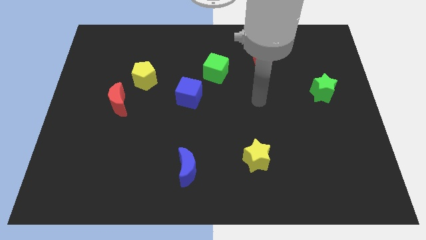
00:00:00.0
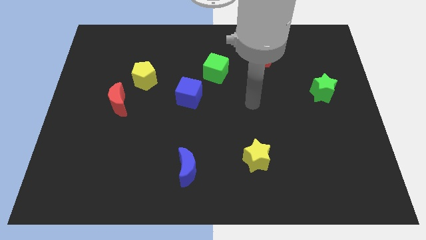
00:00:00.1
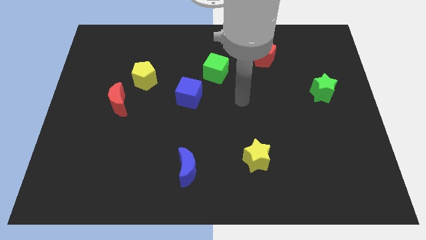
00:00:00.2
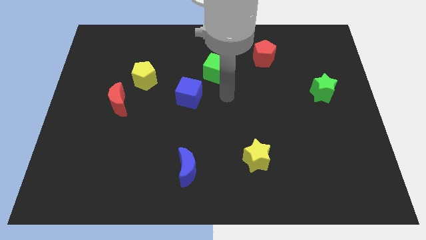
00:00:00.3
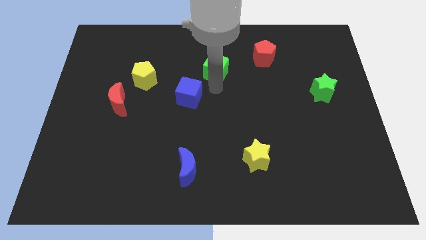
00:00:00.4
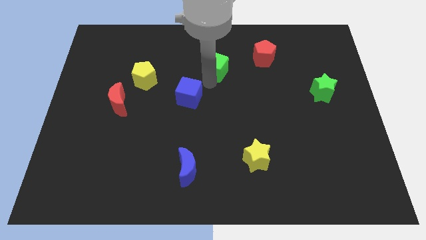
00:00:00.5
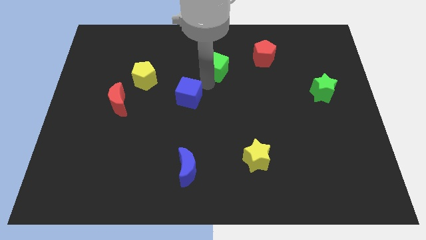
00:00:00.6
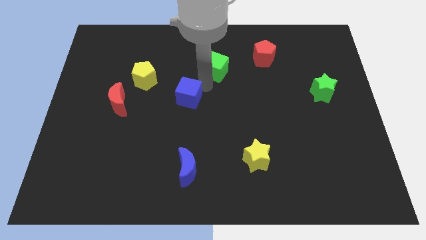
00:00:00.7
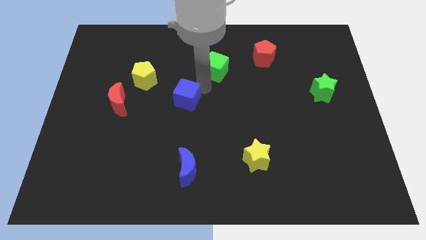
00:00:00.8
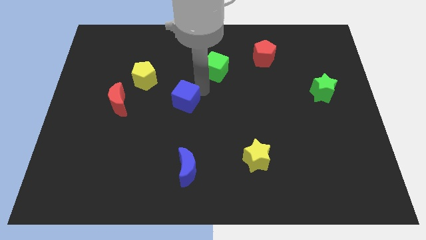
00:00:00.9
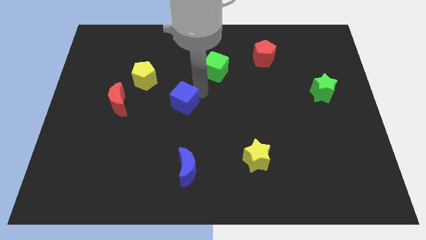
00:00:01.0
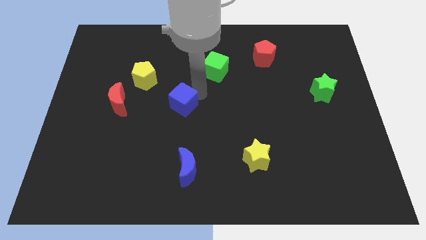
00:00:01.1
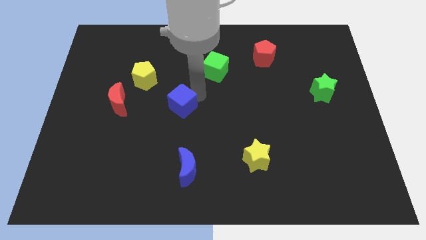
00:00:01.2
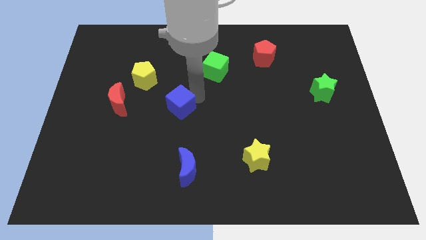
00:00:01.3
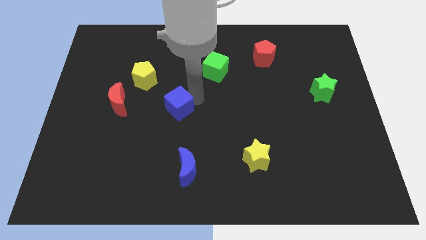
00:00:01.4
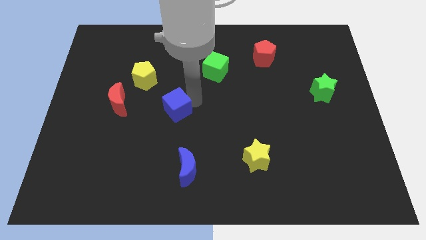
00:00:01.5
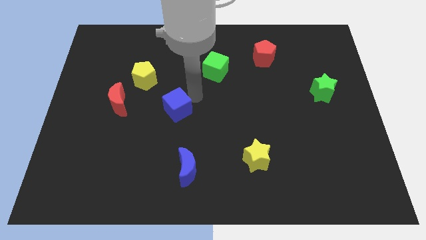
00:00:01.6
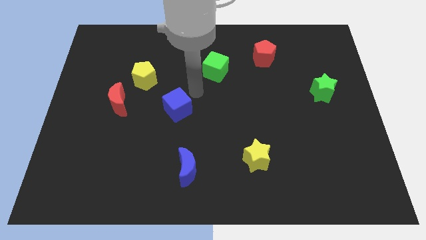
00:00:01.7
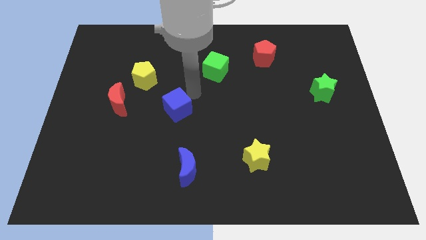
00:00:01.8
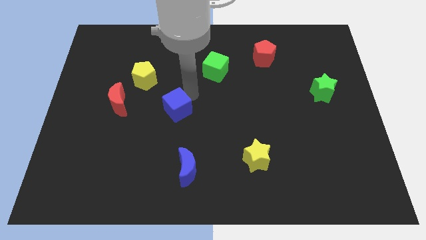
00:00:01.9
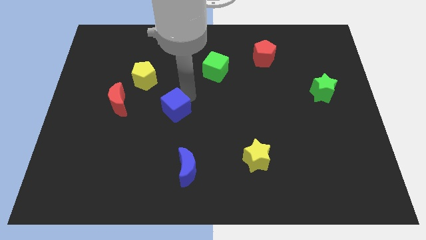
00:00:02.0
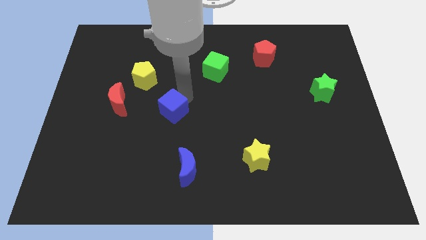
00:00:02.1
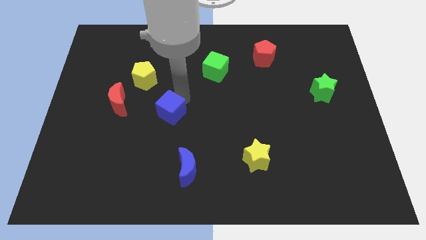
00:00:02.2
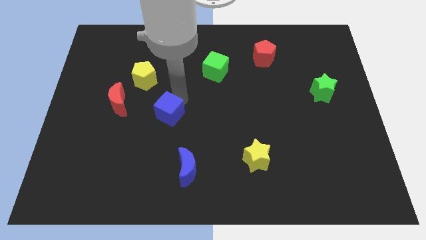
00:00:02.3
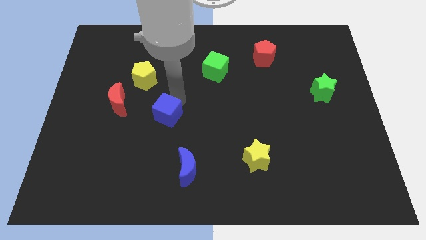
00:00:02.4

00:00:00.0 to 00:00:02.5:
push the blue cube down and then to the left a little bit

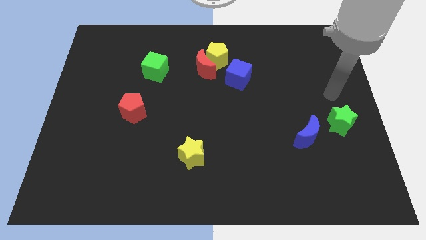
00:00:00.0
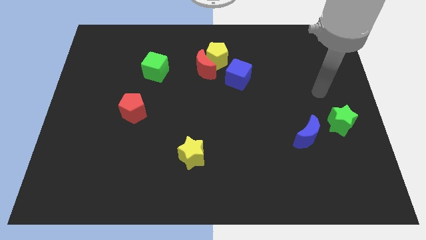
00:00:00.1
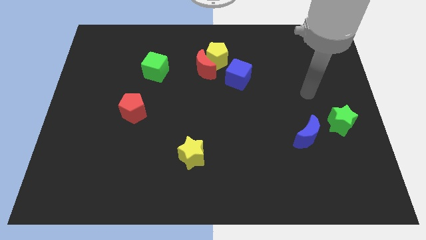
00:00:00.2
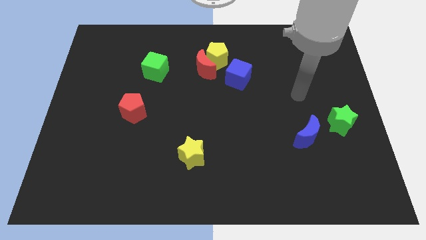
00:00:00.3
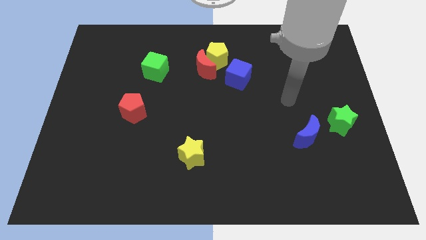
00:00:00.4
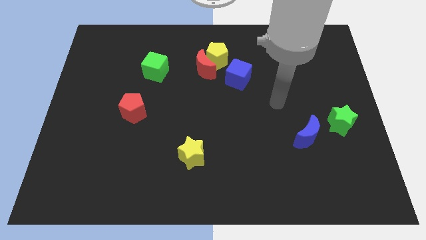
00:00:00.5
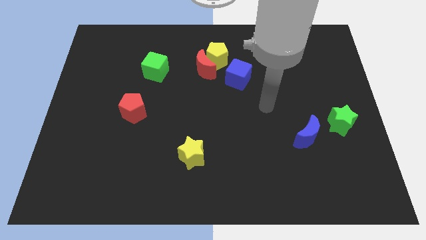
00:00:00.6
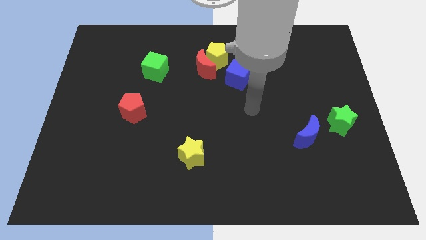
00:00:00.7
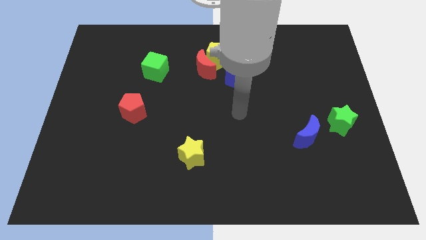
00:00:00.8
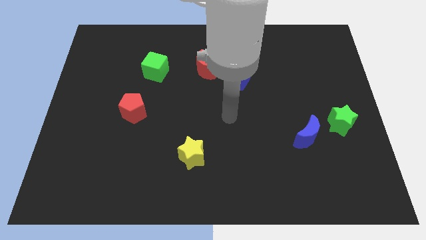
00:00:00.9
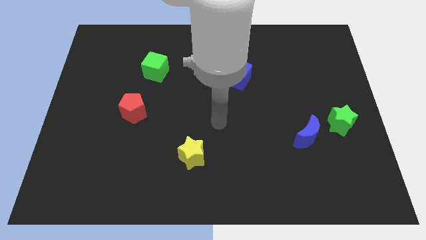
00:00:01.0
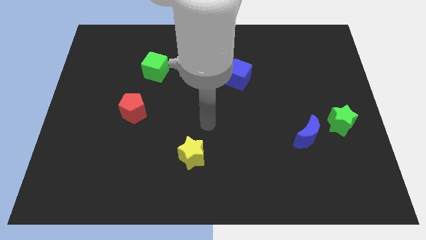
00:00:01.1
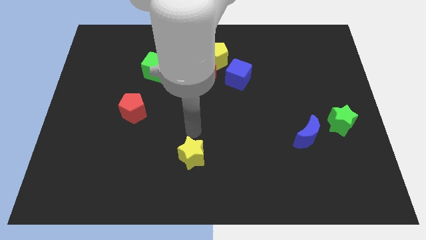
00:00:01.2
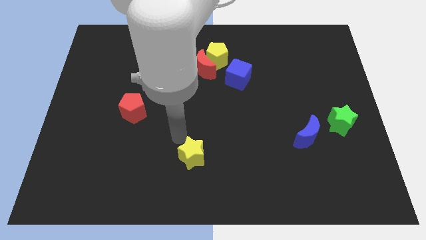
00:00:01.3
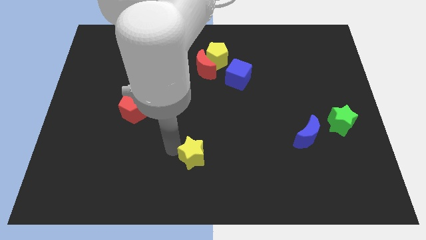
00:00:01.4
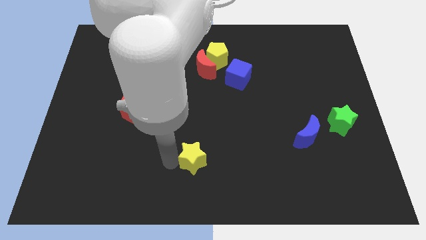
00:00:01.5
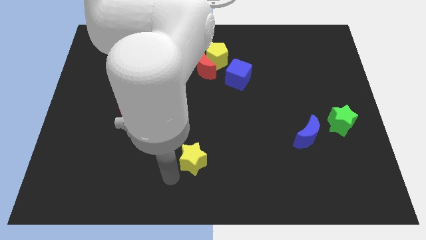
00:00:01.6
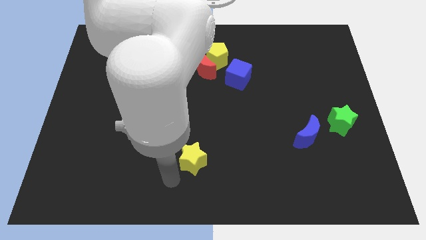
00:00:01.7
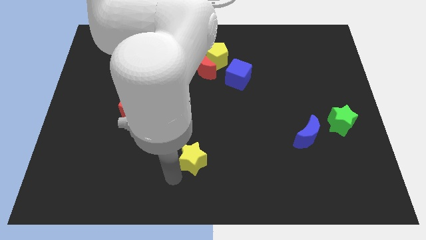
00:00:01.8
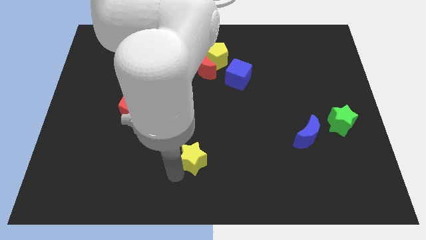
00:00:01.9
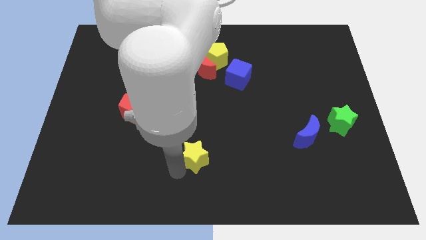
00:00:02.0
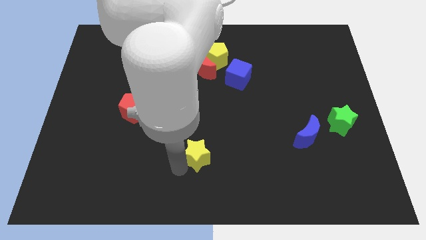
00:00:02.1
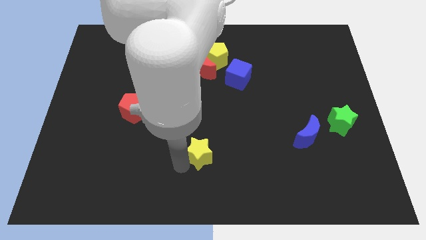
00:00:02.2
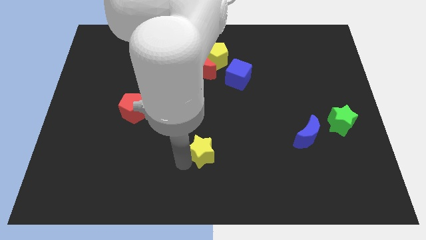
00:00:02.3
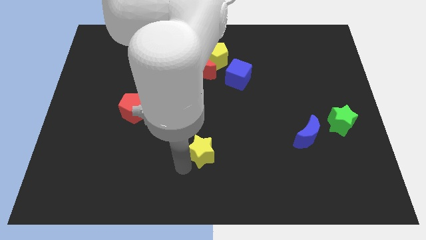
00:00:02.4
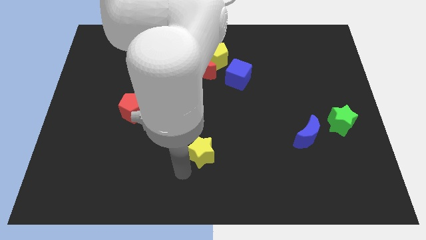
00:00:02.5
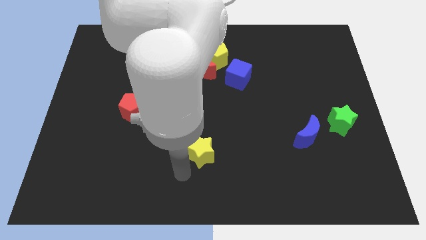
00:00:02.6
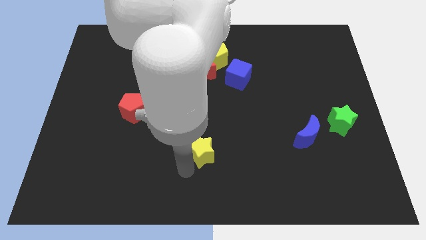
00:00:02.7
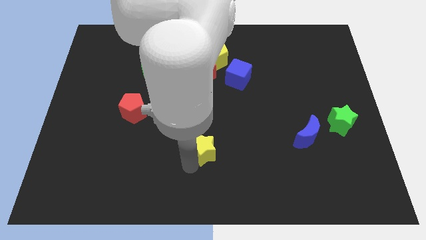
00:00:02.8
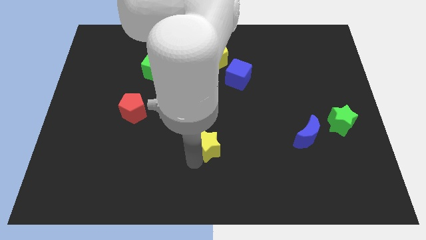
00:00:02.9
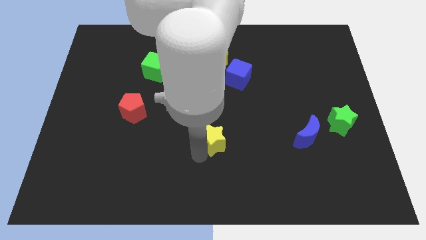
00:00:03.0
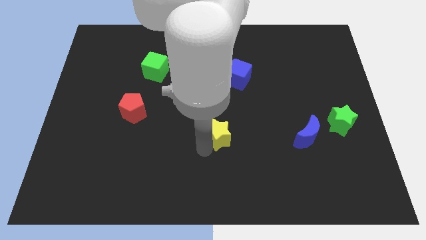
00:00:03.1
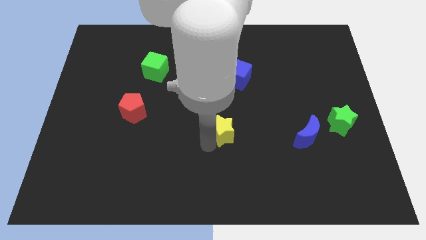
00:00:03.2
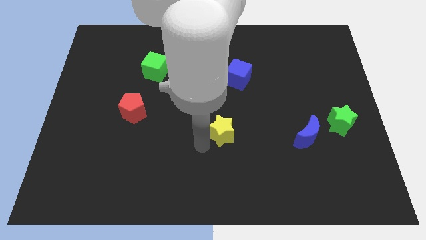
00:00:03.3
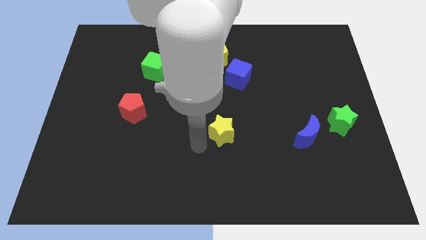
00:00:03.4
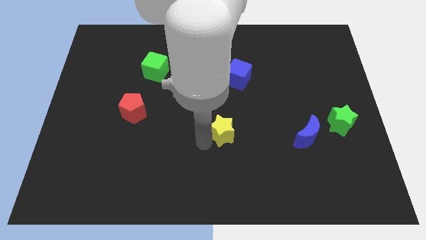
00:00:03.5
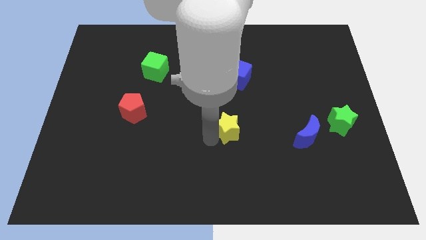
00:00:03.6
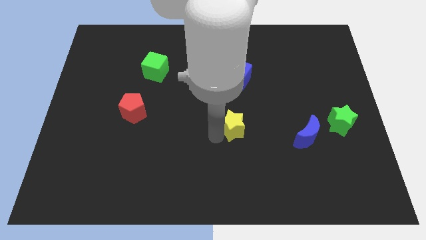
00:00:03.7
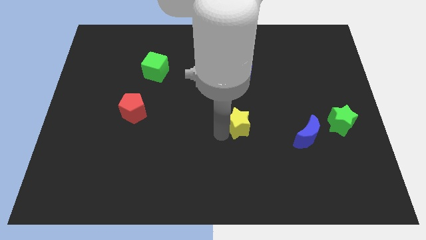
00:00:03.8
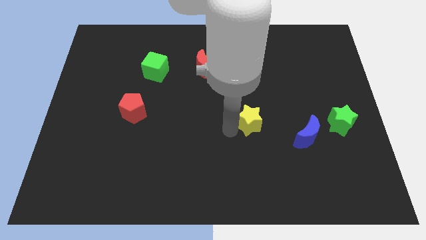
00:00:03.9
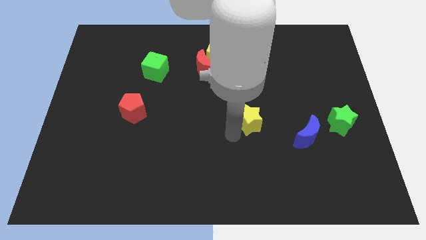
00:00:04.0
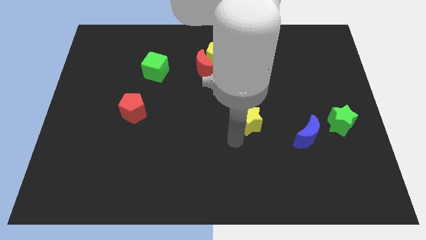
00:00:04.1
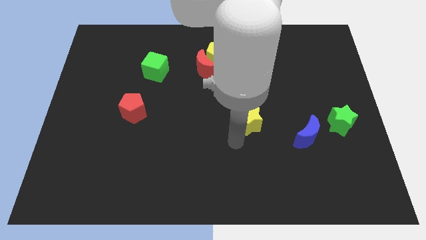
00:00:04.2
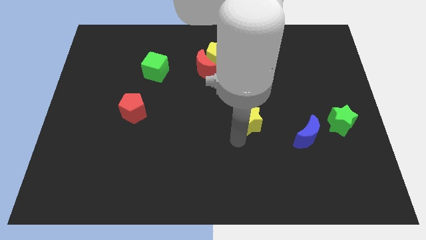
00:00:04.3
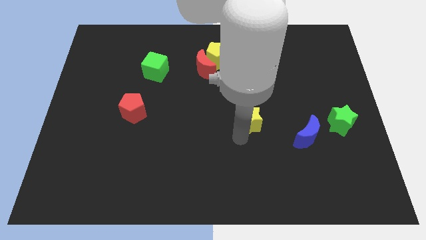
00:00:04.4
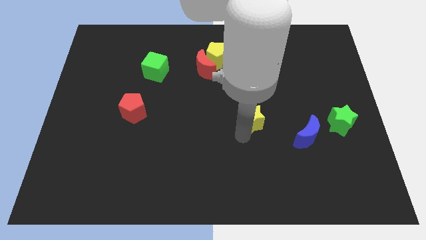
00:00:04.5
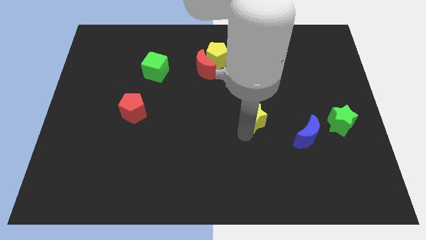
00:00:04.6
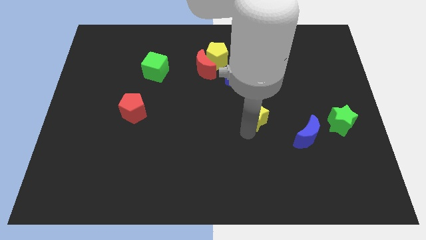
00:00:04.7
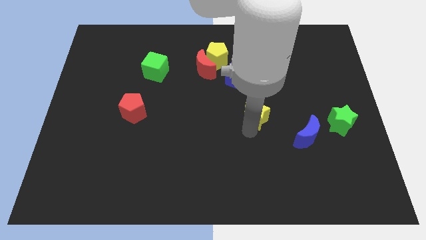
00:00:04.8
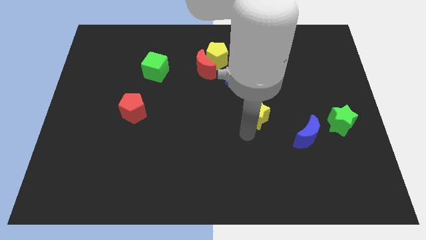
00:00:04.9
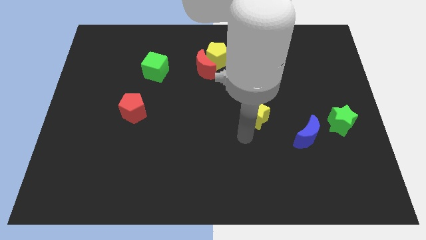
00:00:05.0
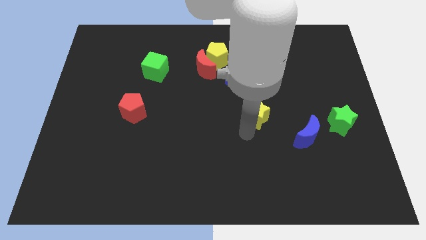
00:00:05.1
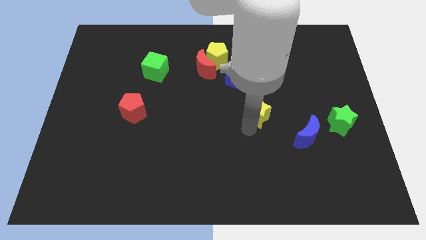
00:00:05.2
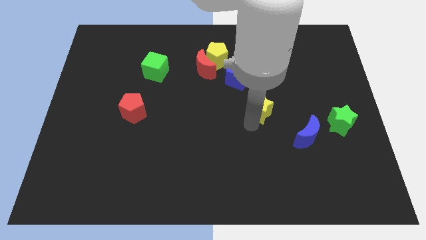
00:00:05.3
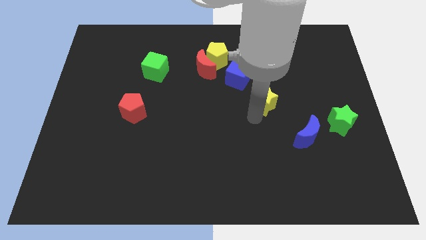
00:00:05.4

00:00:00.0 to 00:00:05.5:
move the yellow star up and then right

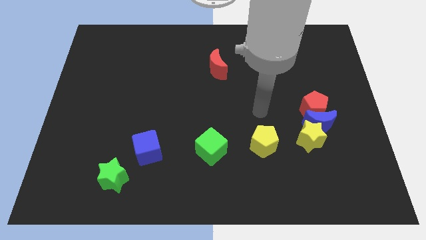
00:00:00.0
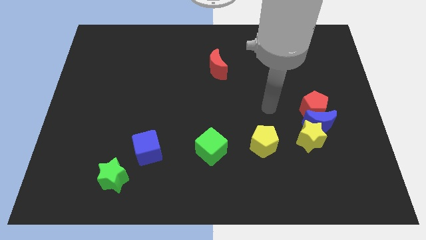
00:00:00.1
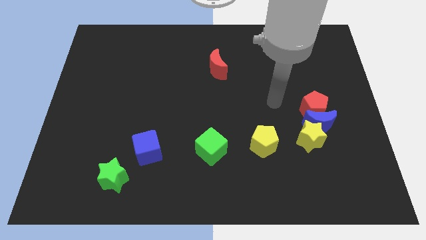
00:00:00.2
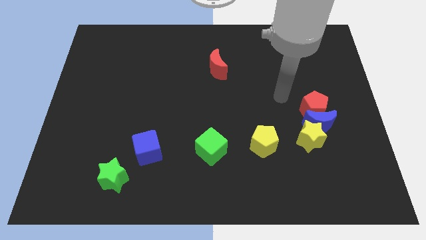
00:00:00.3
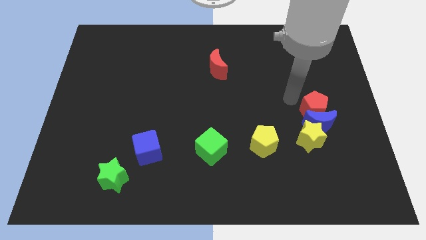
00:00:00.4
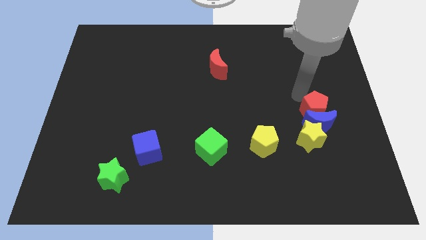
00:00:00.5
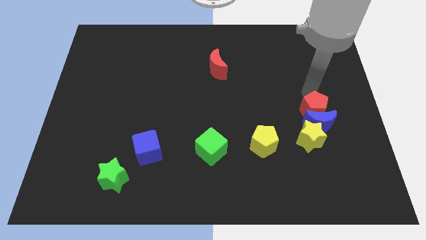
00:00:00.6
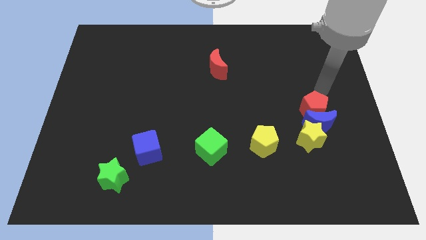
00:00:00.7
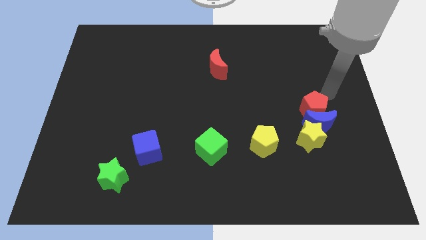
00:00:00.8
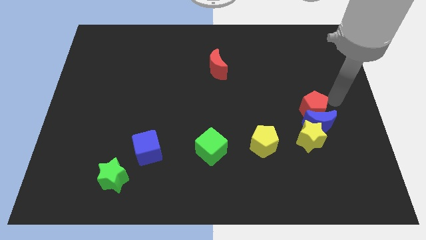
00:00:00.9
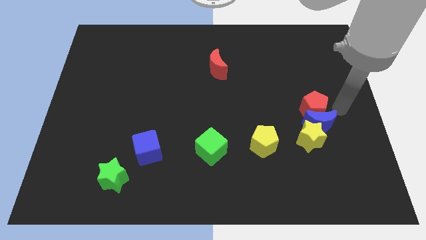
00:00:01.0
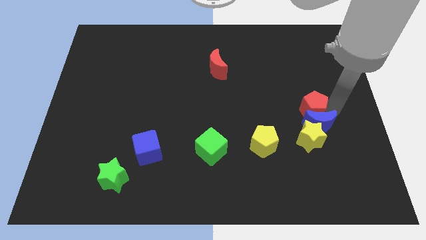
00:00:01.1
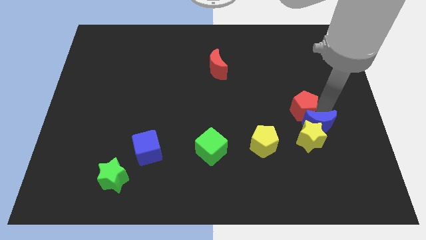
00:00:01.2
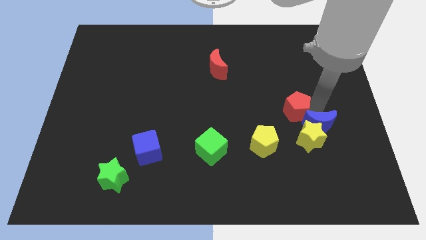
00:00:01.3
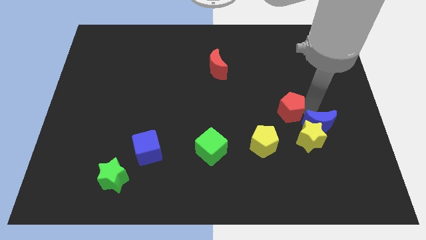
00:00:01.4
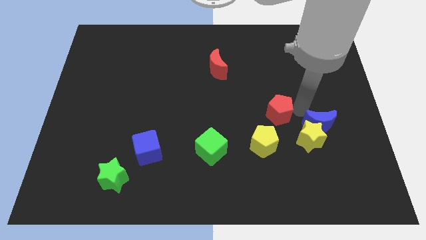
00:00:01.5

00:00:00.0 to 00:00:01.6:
move the red pentagon a little bit left
